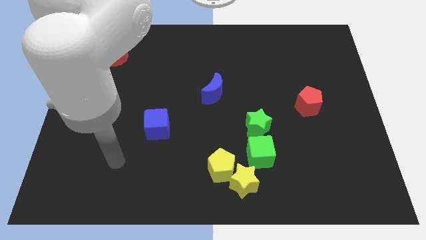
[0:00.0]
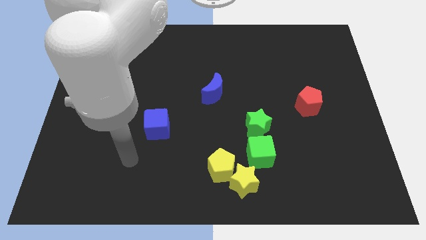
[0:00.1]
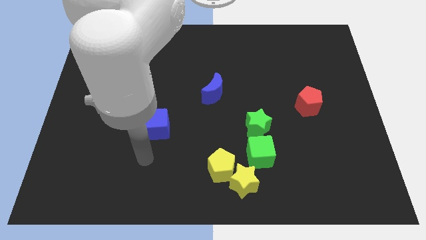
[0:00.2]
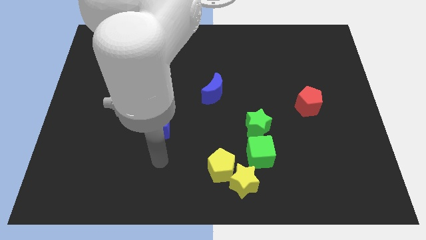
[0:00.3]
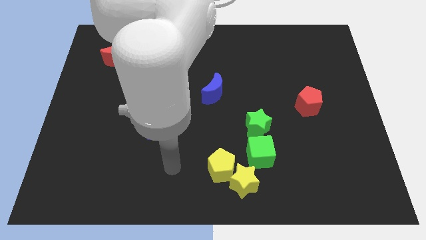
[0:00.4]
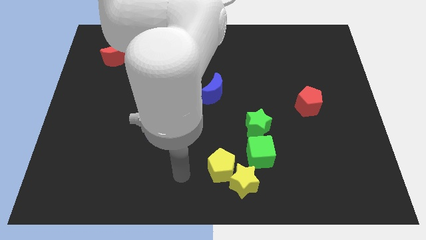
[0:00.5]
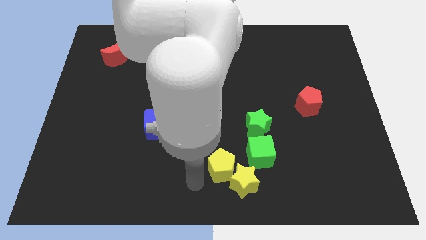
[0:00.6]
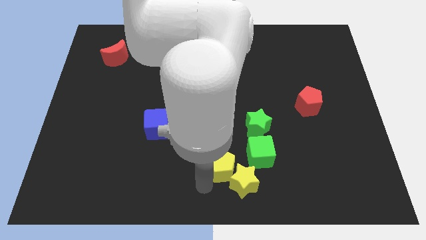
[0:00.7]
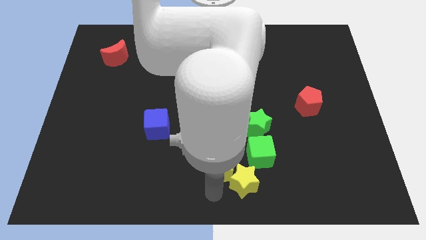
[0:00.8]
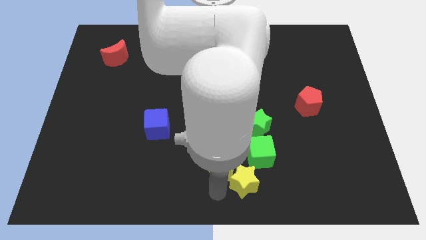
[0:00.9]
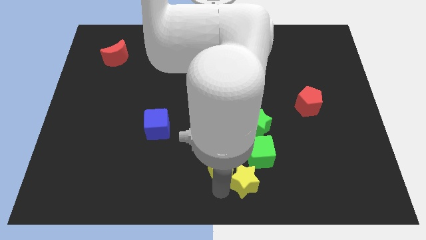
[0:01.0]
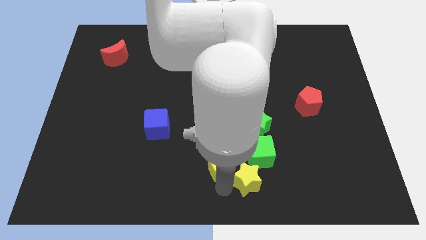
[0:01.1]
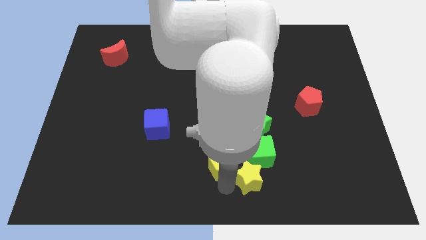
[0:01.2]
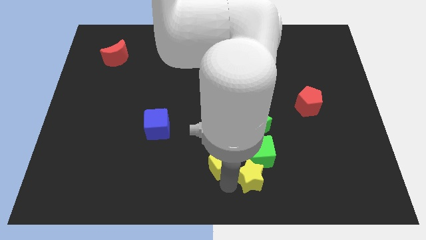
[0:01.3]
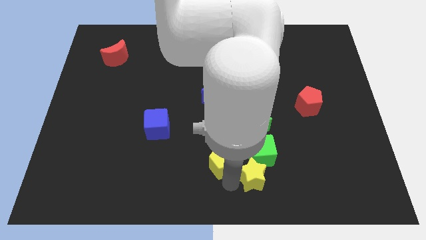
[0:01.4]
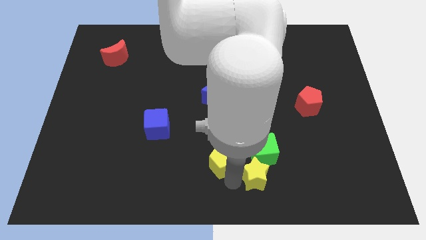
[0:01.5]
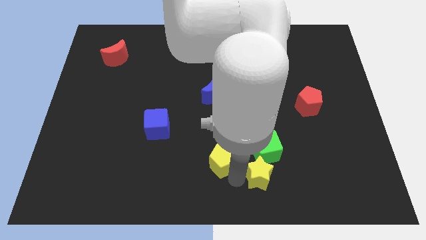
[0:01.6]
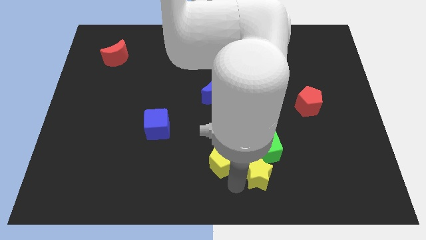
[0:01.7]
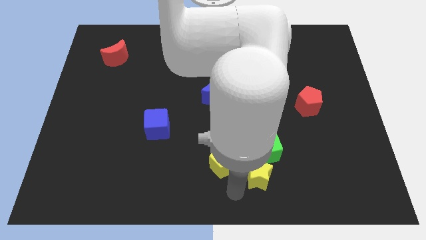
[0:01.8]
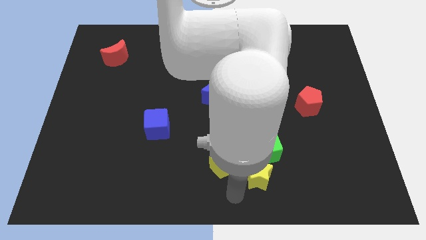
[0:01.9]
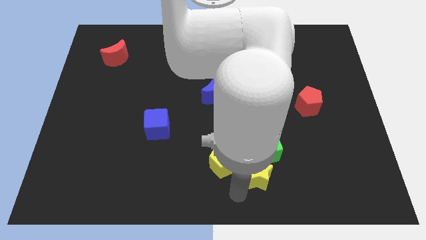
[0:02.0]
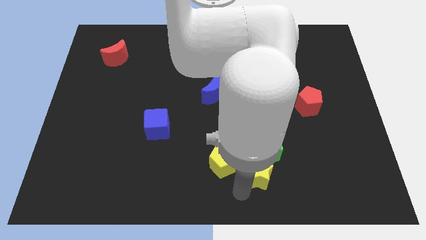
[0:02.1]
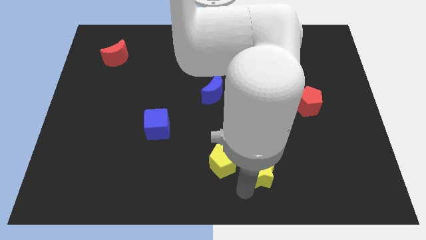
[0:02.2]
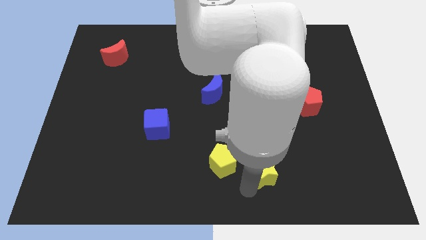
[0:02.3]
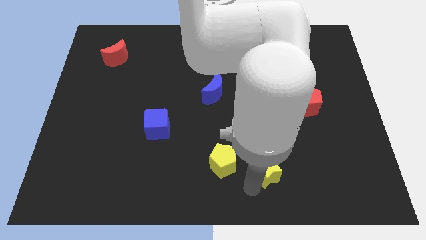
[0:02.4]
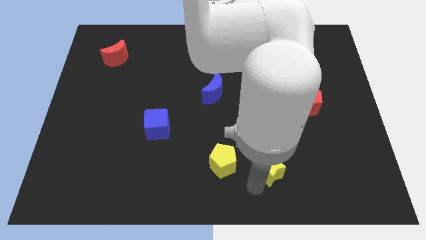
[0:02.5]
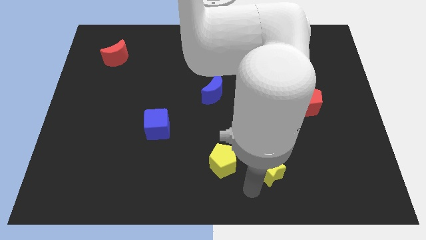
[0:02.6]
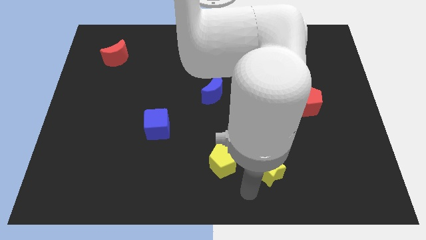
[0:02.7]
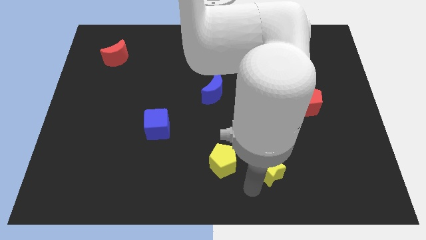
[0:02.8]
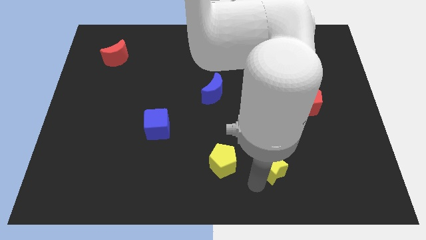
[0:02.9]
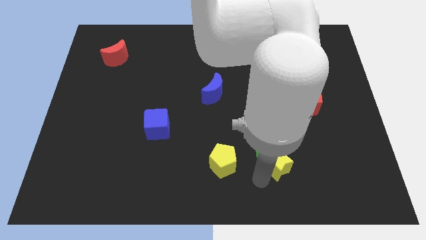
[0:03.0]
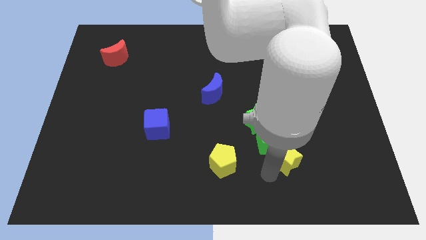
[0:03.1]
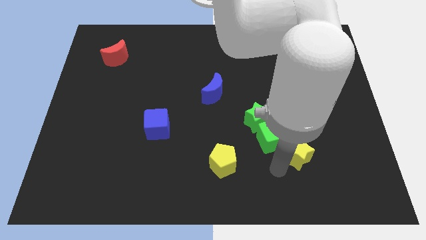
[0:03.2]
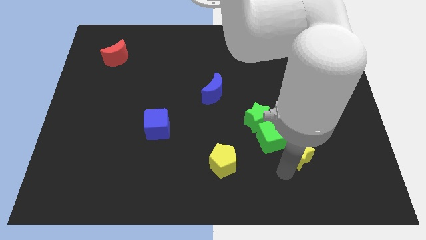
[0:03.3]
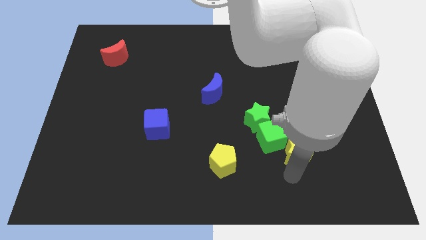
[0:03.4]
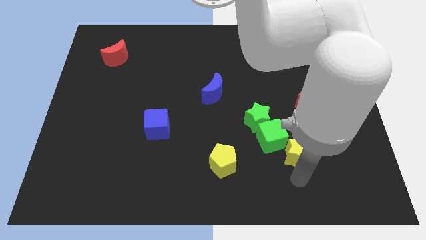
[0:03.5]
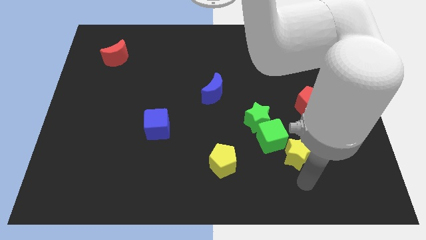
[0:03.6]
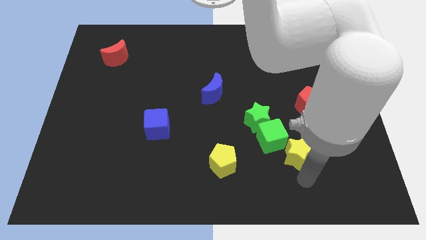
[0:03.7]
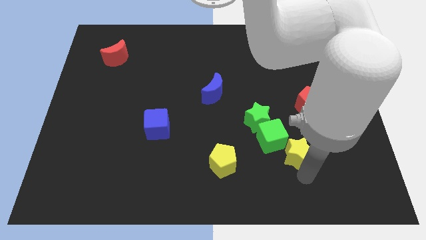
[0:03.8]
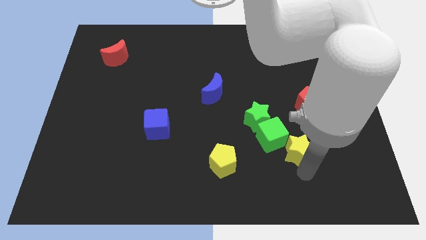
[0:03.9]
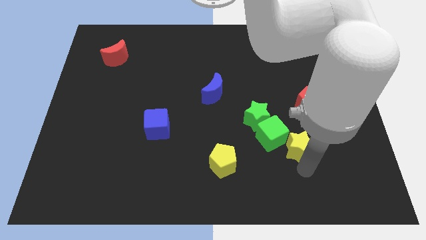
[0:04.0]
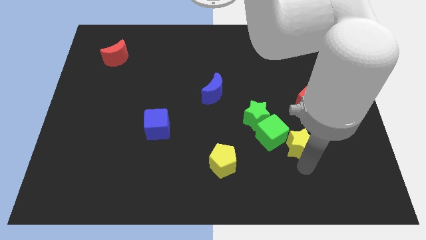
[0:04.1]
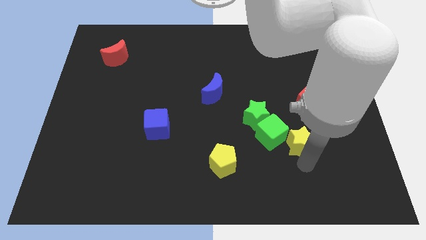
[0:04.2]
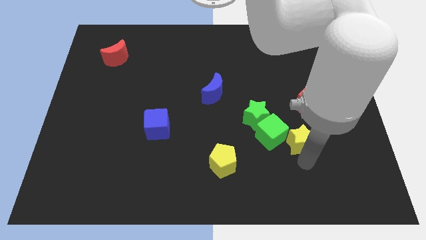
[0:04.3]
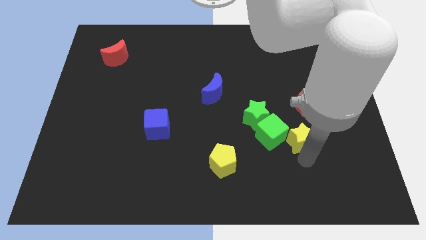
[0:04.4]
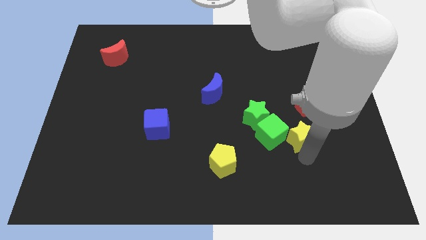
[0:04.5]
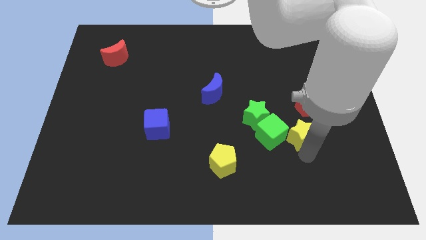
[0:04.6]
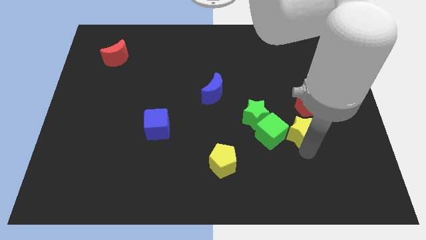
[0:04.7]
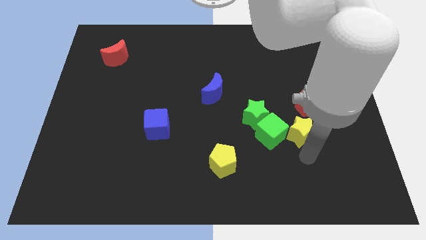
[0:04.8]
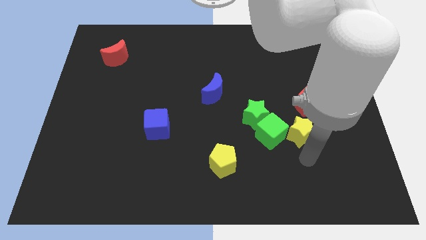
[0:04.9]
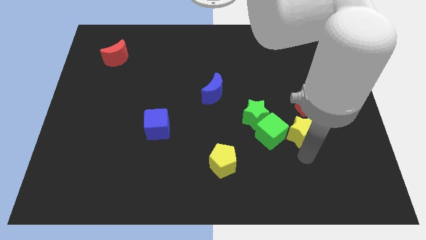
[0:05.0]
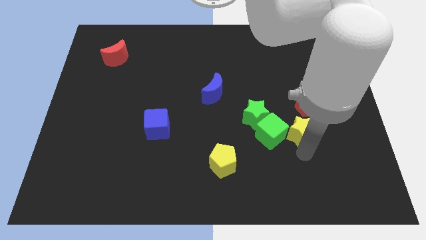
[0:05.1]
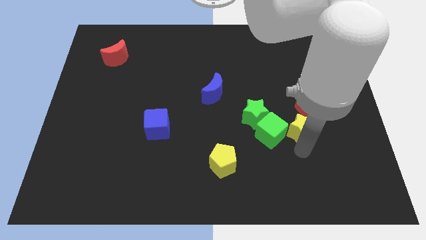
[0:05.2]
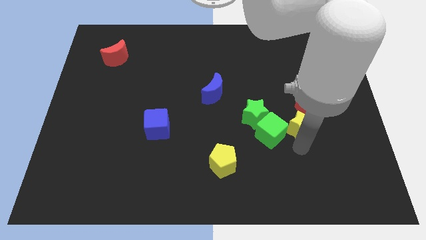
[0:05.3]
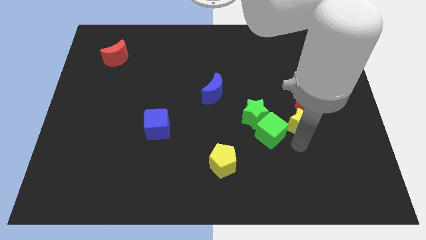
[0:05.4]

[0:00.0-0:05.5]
put the yellow star close to the red pentagon

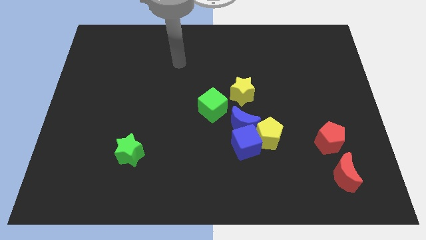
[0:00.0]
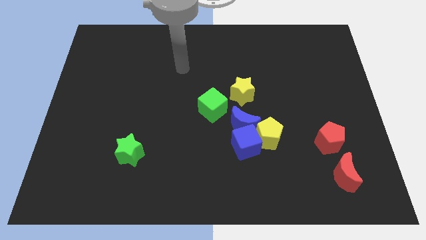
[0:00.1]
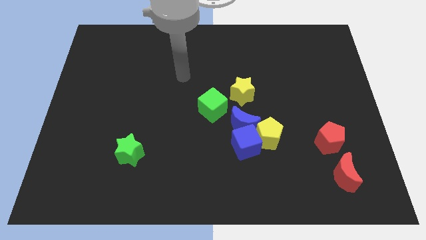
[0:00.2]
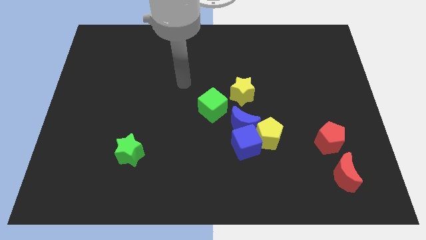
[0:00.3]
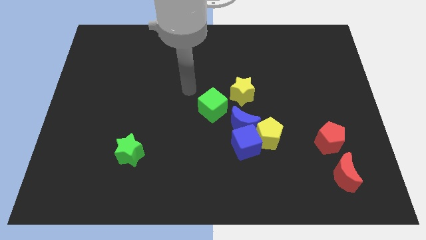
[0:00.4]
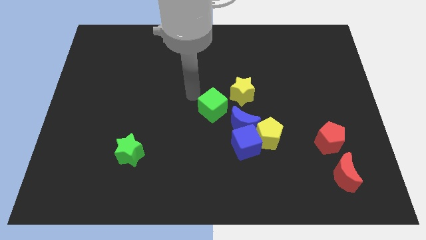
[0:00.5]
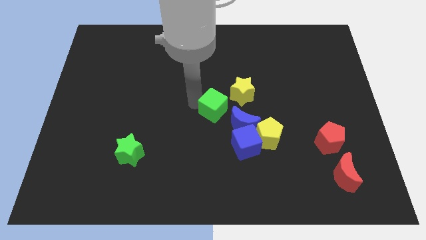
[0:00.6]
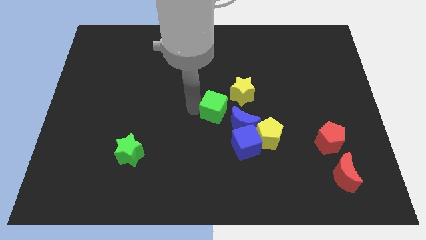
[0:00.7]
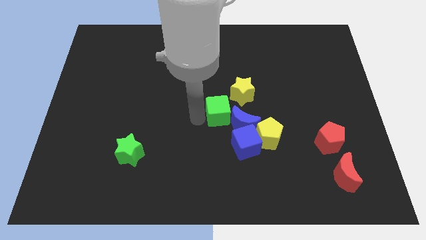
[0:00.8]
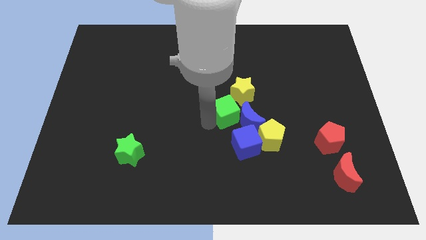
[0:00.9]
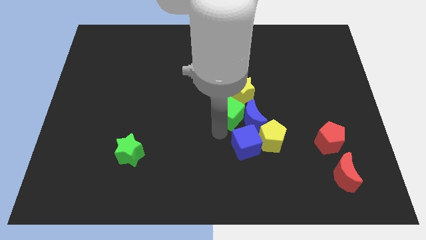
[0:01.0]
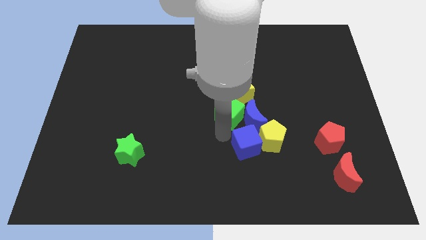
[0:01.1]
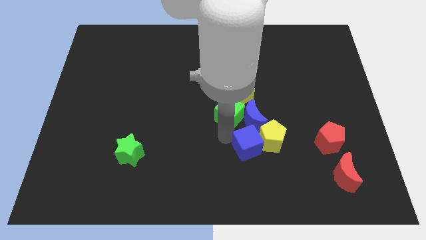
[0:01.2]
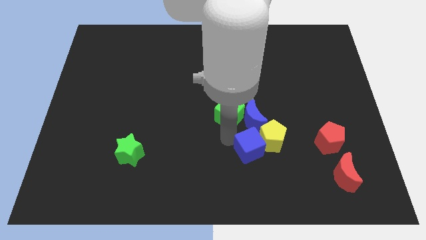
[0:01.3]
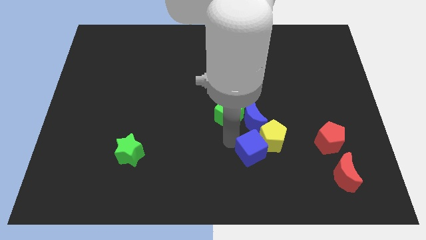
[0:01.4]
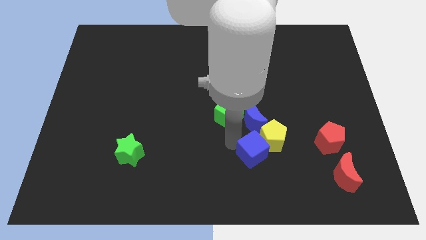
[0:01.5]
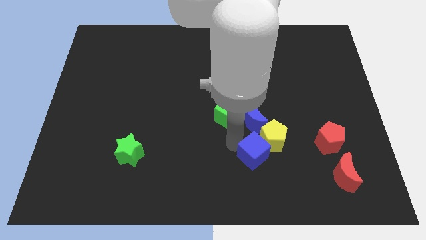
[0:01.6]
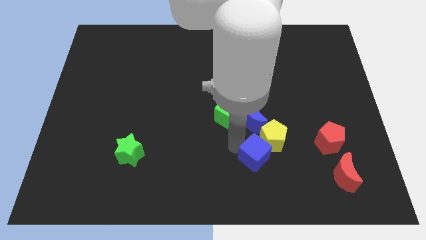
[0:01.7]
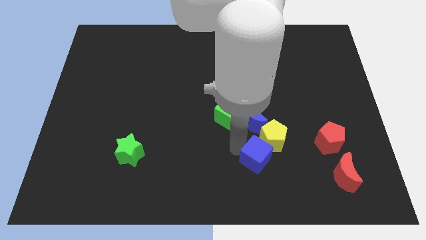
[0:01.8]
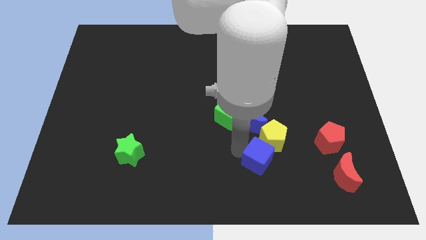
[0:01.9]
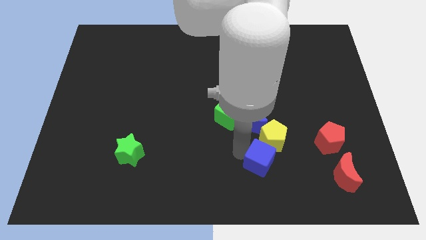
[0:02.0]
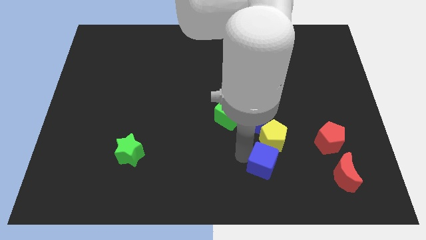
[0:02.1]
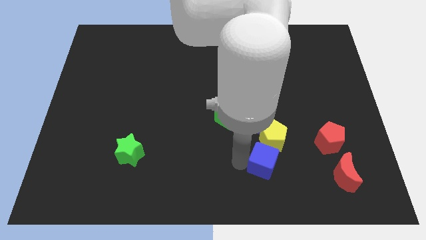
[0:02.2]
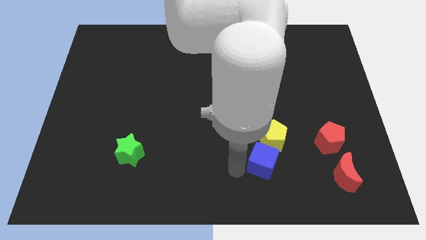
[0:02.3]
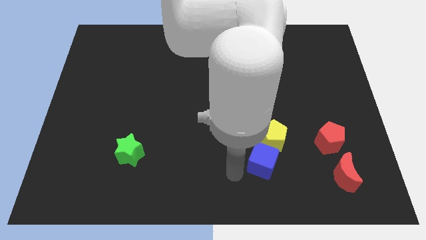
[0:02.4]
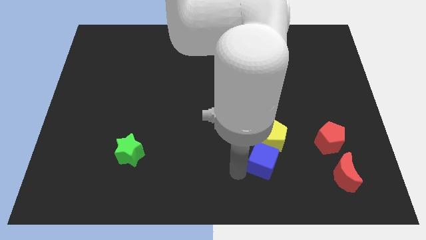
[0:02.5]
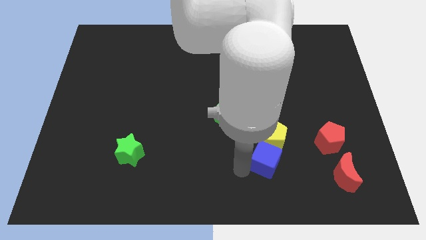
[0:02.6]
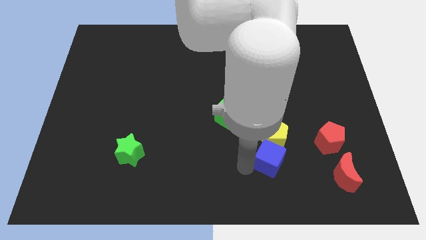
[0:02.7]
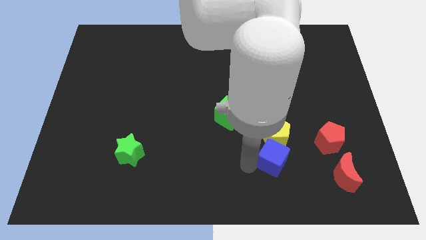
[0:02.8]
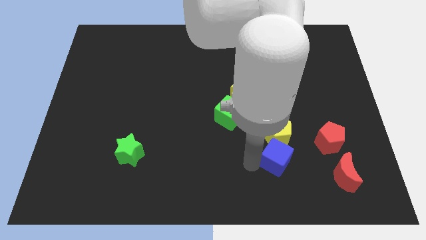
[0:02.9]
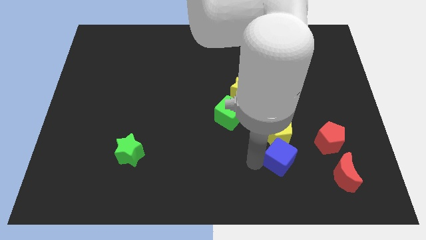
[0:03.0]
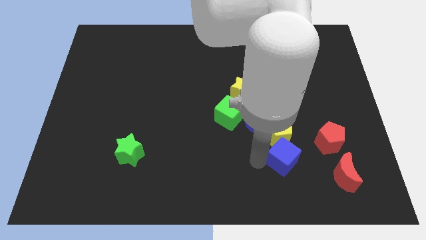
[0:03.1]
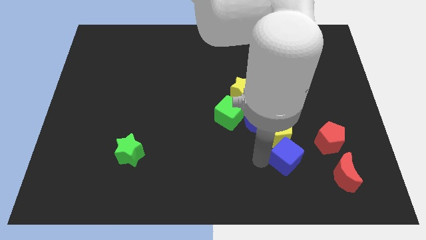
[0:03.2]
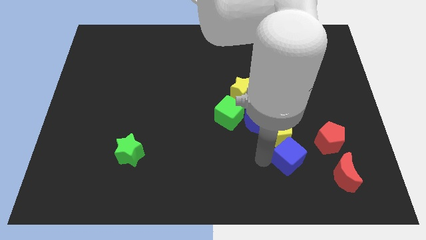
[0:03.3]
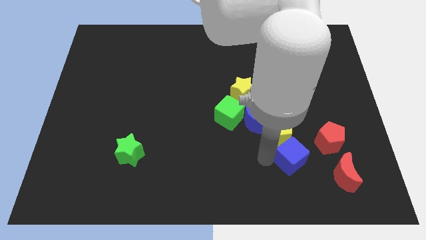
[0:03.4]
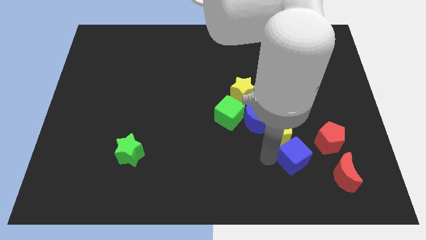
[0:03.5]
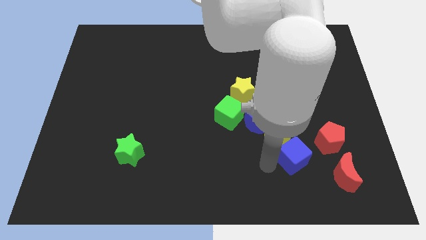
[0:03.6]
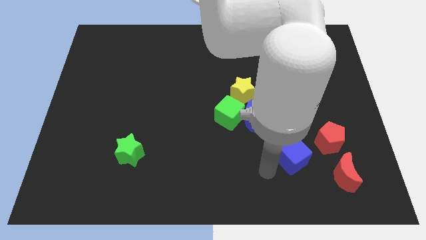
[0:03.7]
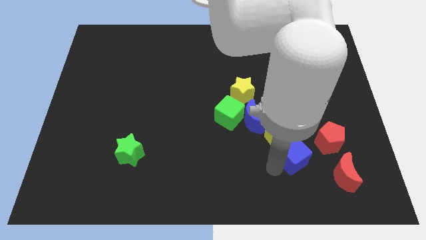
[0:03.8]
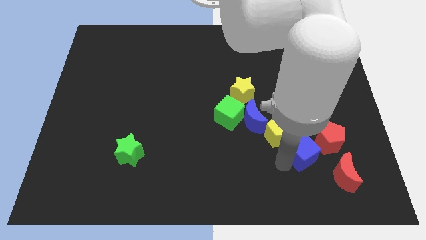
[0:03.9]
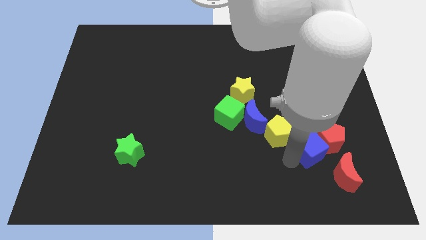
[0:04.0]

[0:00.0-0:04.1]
slide the blue cube towards the red pentagon
